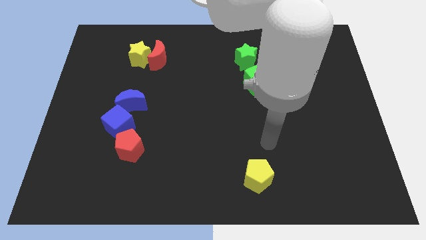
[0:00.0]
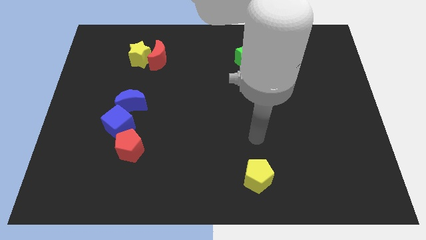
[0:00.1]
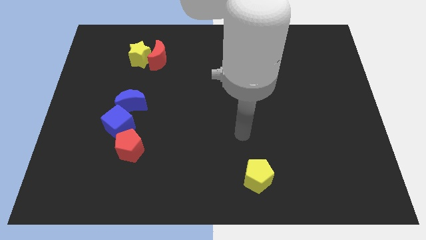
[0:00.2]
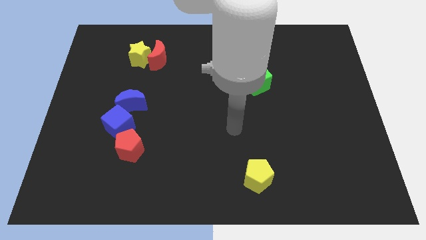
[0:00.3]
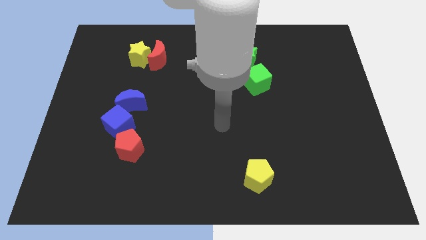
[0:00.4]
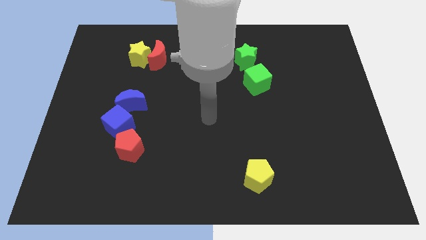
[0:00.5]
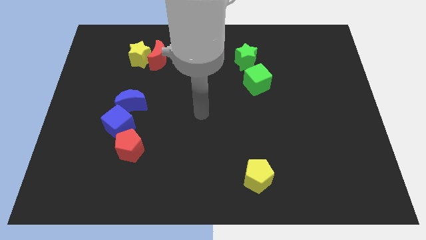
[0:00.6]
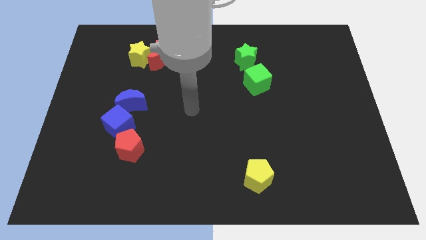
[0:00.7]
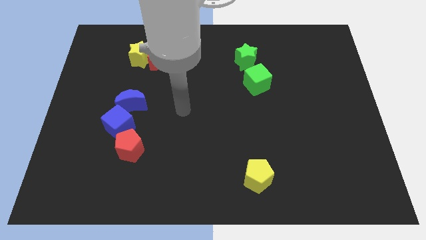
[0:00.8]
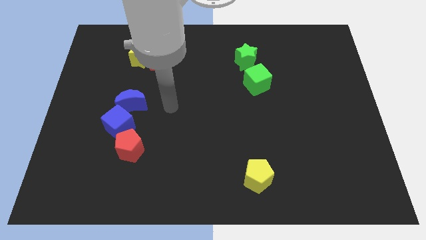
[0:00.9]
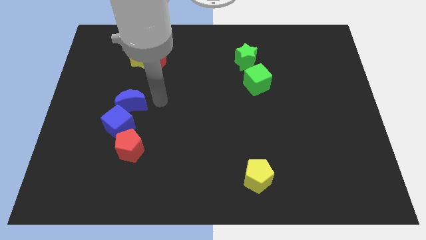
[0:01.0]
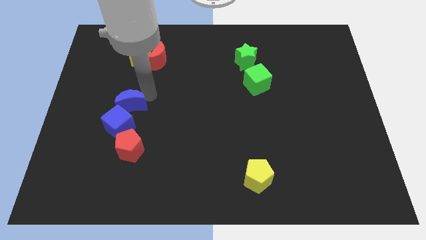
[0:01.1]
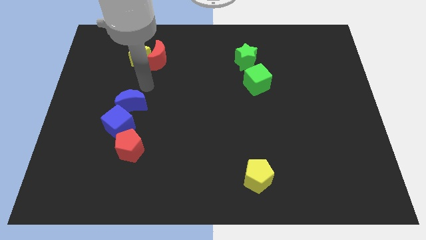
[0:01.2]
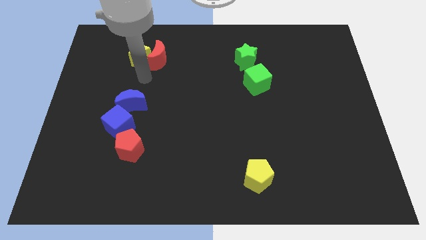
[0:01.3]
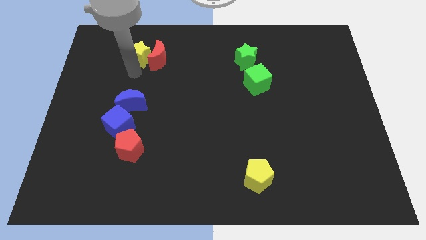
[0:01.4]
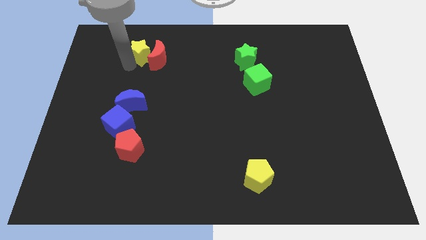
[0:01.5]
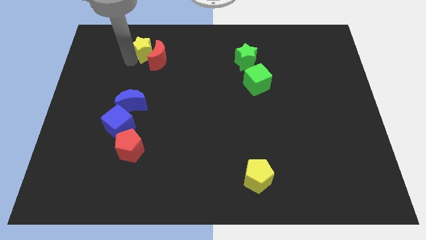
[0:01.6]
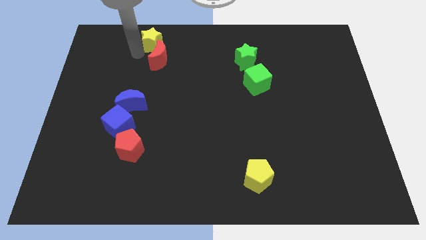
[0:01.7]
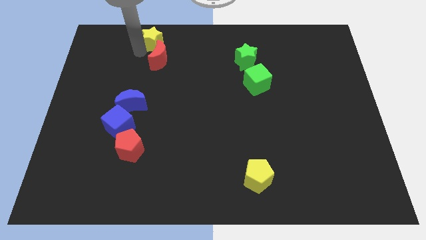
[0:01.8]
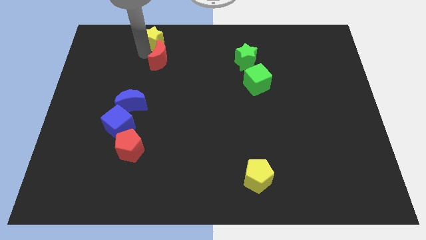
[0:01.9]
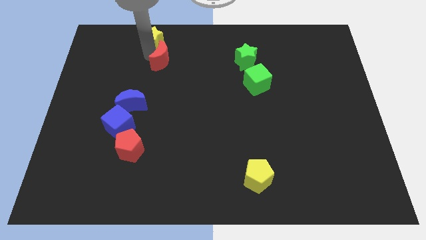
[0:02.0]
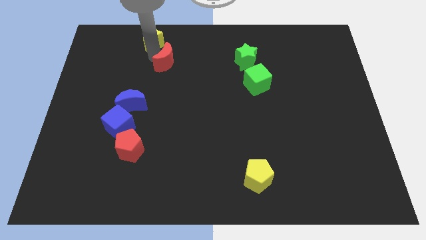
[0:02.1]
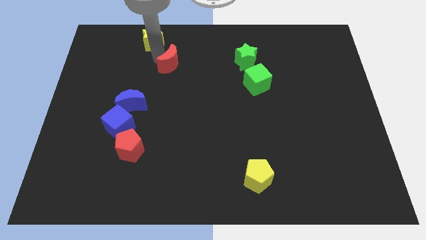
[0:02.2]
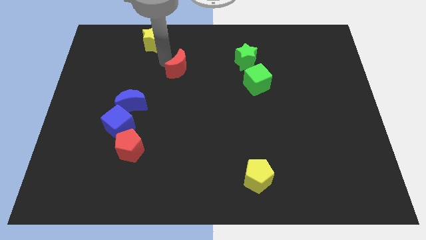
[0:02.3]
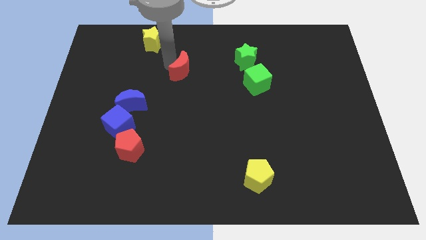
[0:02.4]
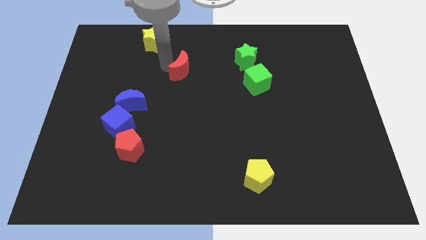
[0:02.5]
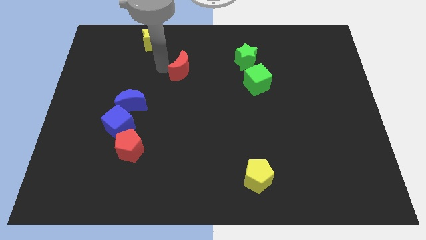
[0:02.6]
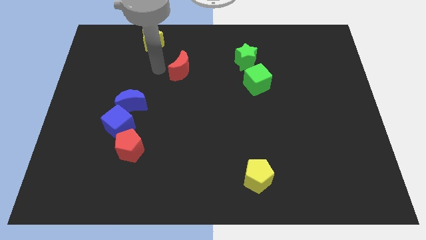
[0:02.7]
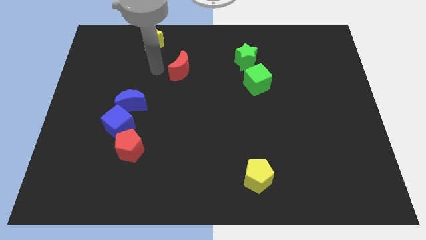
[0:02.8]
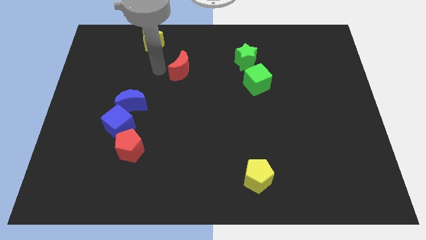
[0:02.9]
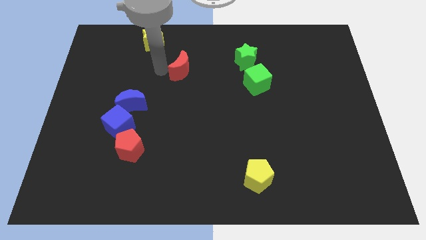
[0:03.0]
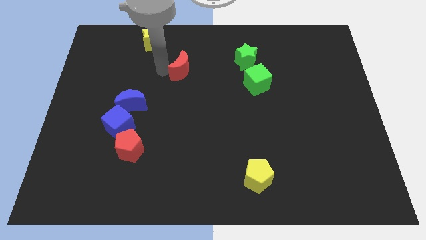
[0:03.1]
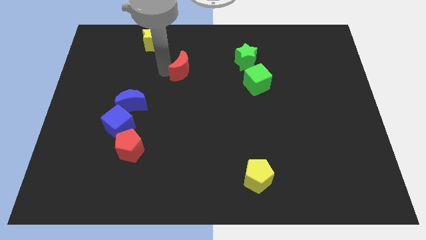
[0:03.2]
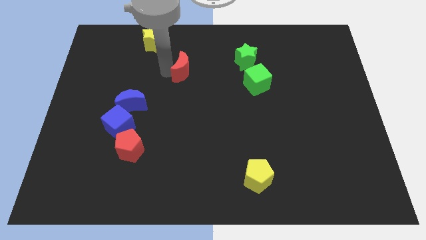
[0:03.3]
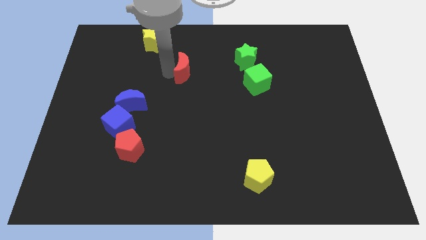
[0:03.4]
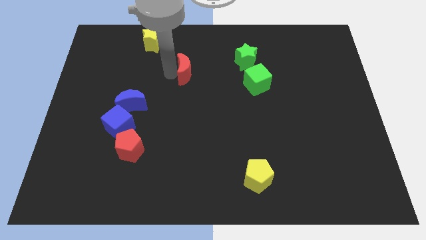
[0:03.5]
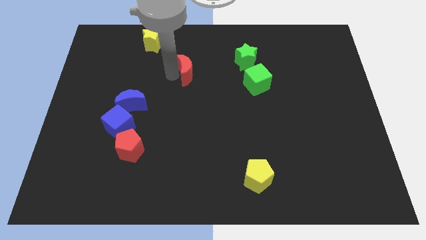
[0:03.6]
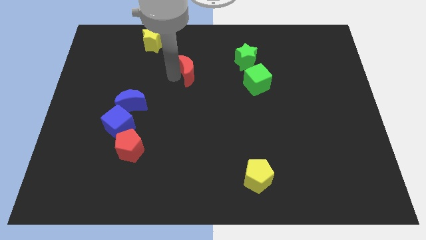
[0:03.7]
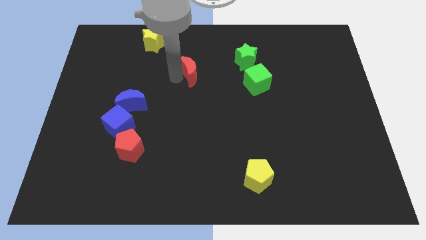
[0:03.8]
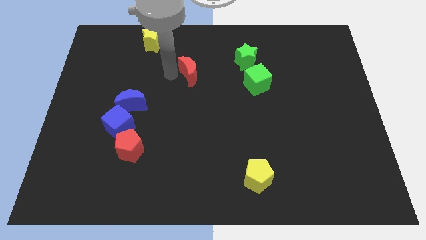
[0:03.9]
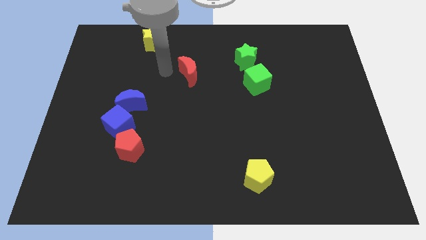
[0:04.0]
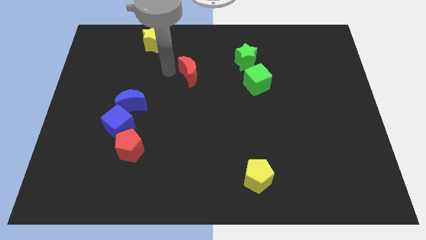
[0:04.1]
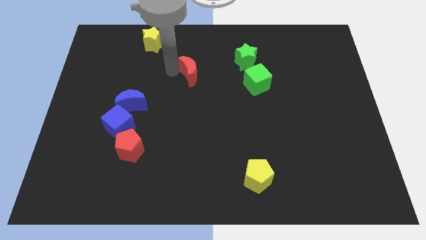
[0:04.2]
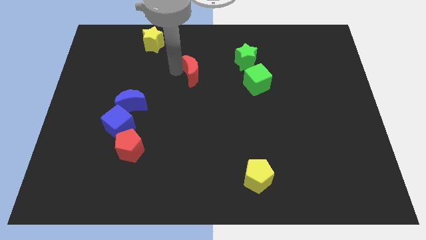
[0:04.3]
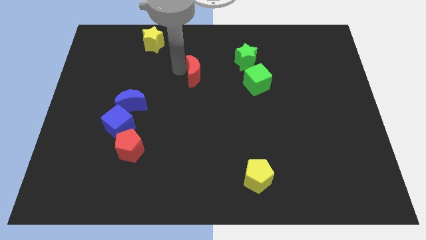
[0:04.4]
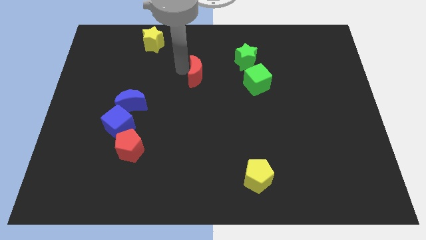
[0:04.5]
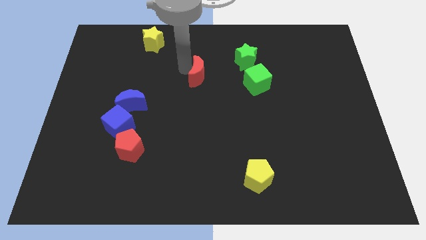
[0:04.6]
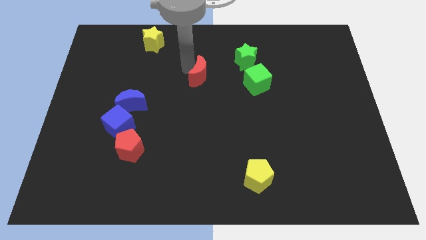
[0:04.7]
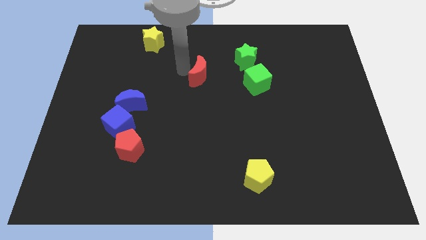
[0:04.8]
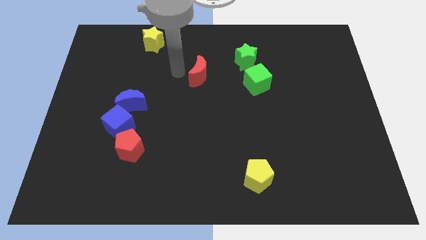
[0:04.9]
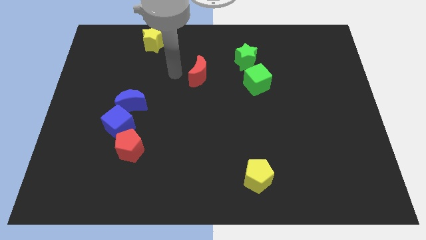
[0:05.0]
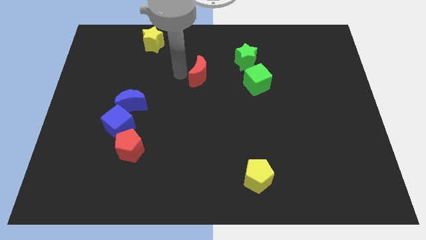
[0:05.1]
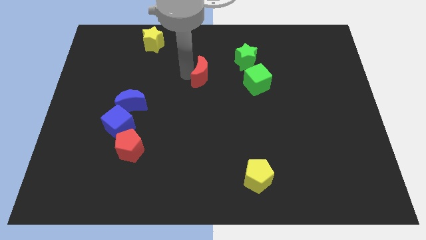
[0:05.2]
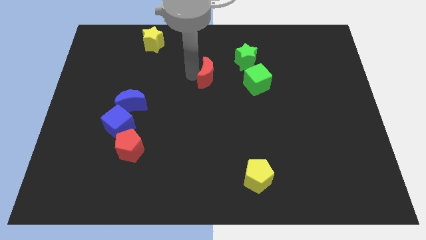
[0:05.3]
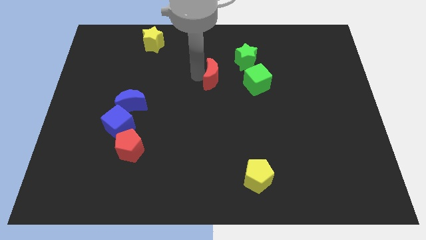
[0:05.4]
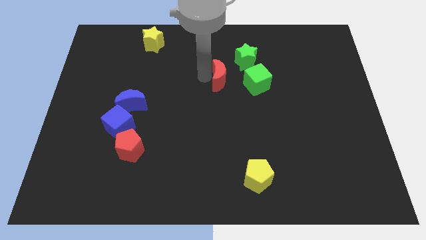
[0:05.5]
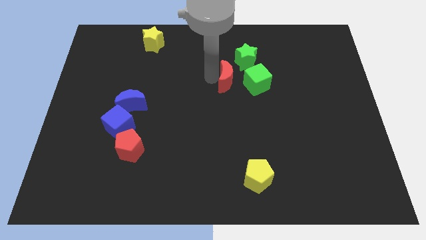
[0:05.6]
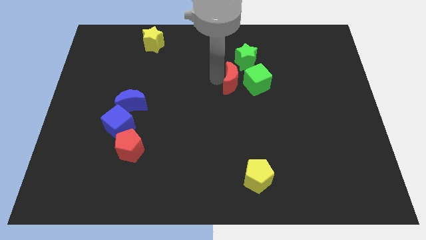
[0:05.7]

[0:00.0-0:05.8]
push the red moon to the green cube

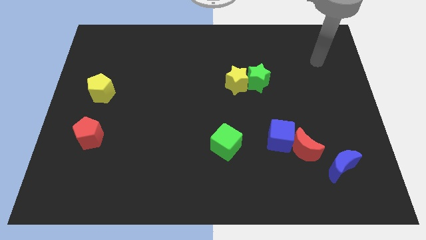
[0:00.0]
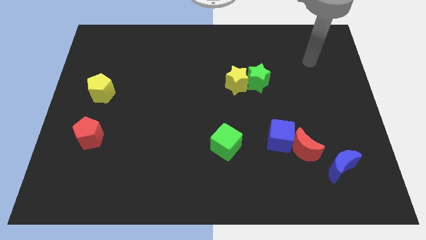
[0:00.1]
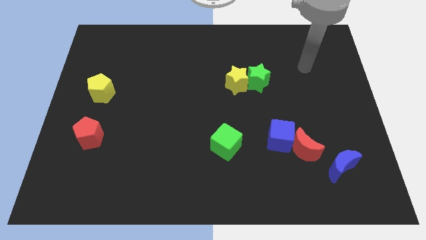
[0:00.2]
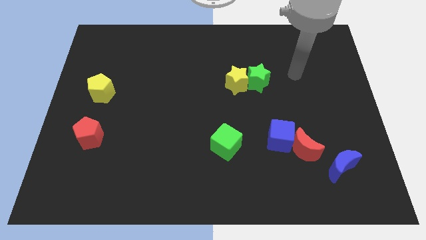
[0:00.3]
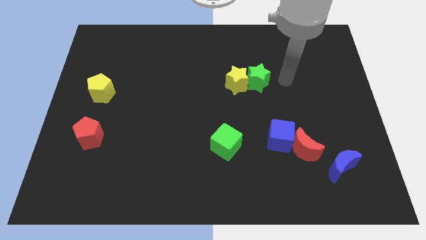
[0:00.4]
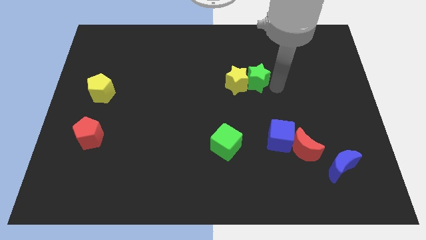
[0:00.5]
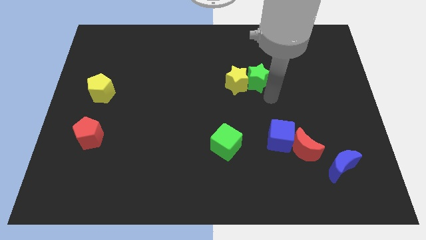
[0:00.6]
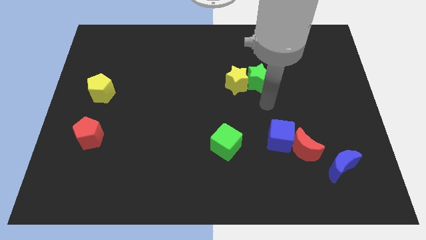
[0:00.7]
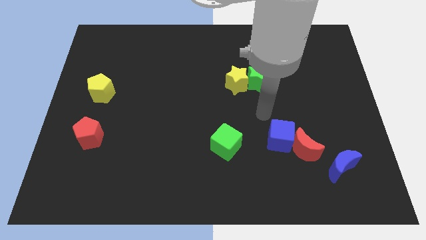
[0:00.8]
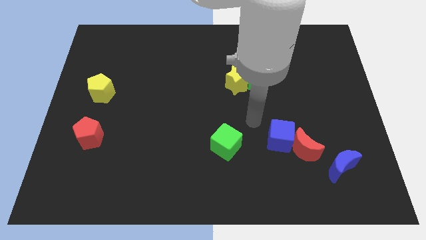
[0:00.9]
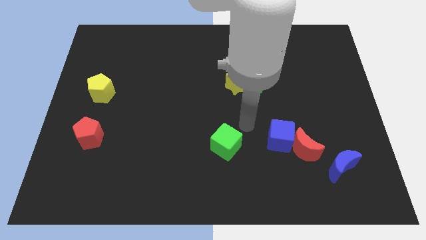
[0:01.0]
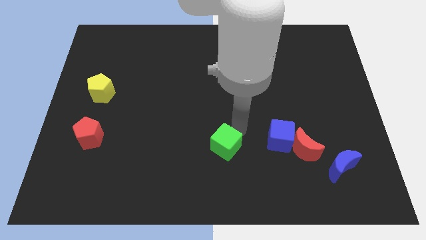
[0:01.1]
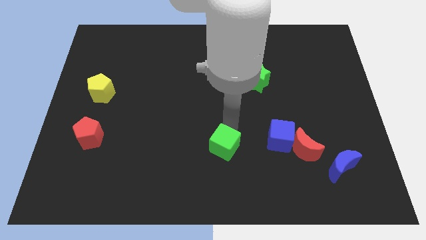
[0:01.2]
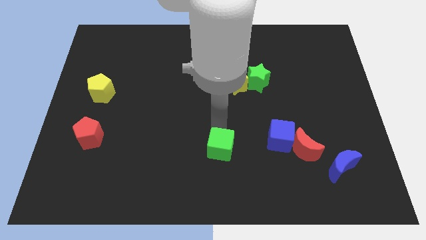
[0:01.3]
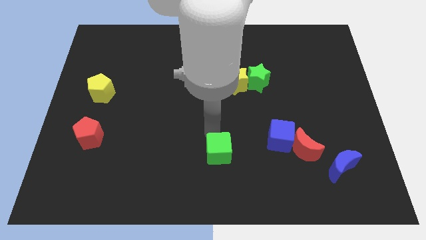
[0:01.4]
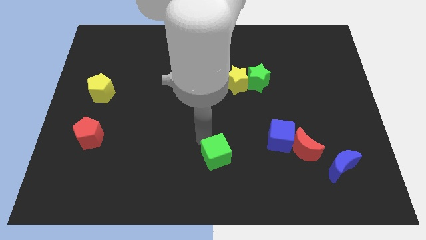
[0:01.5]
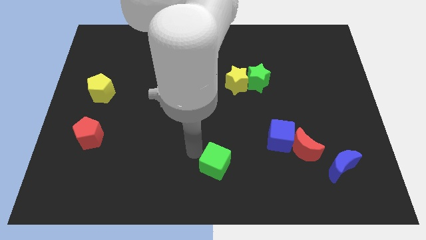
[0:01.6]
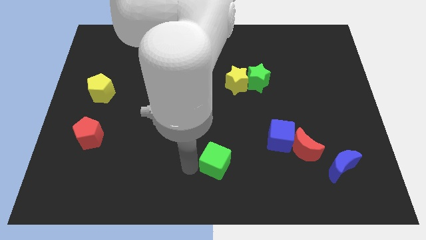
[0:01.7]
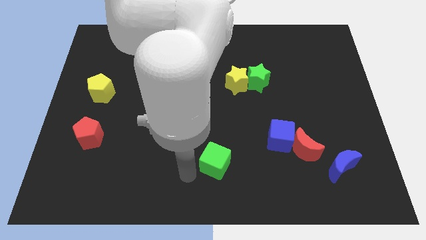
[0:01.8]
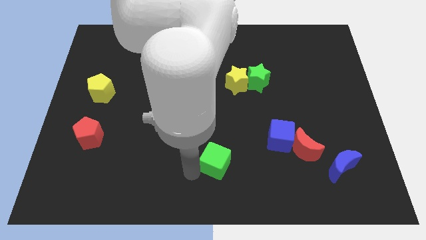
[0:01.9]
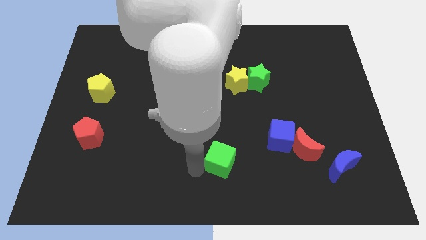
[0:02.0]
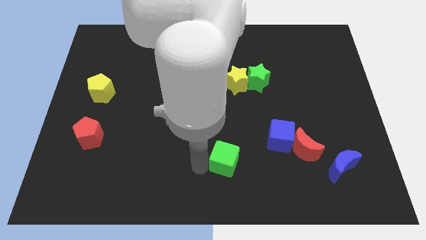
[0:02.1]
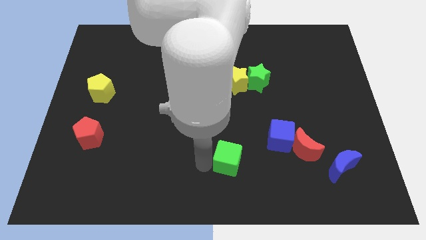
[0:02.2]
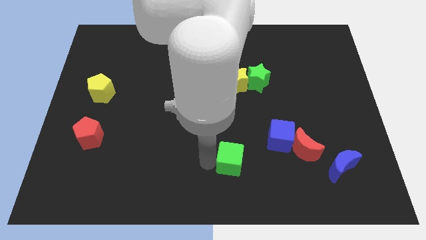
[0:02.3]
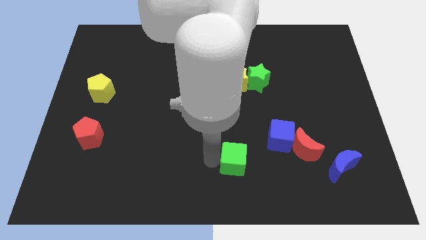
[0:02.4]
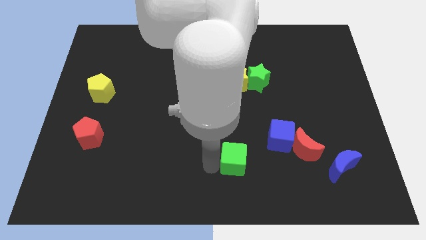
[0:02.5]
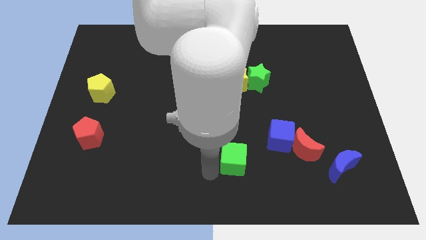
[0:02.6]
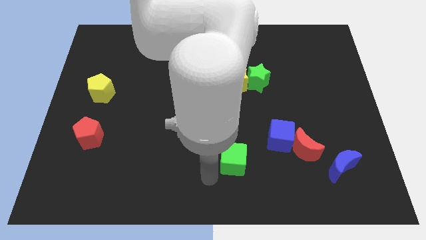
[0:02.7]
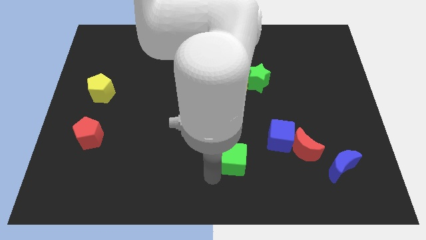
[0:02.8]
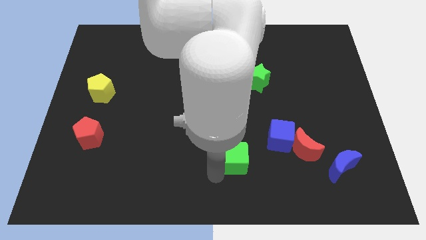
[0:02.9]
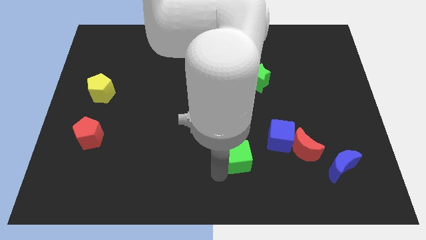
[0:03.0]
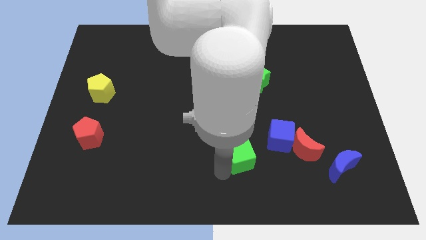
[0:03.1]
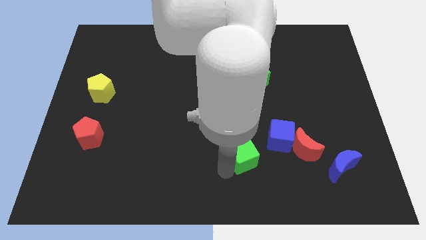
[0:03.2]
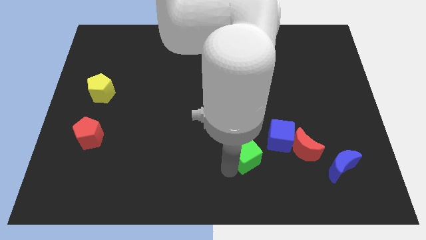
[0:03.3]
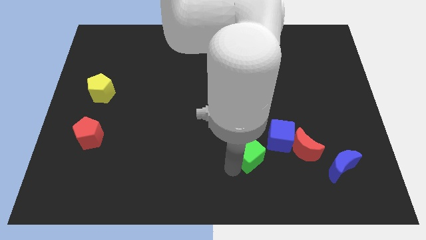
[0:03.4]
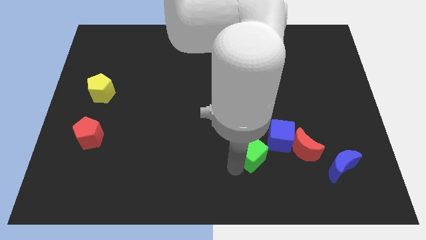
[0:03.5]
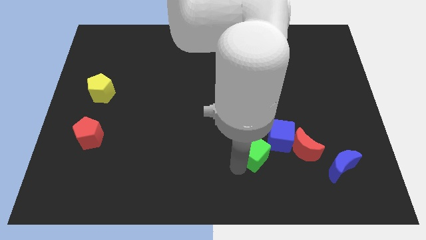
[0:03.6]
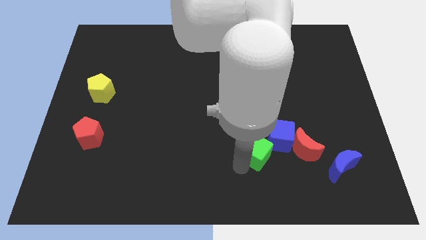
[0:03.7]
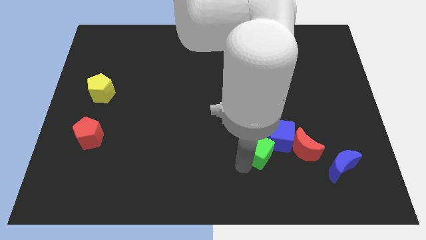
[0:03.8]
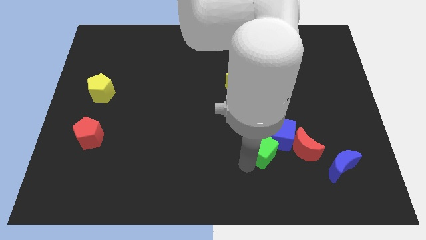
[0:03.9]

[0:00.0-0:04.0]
put the green cube close to the blue cube
